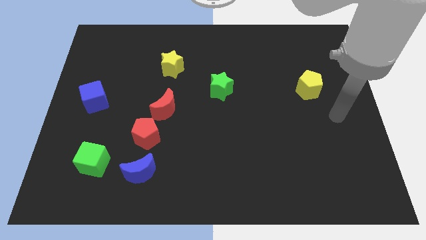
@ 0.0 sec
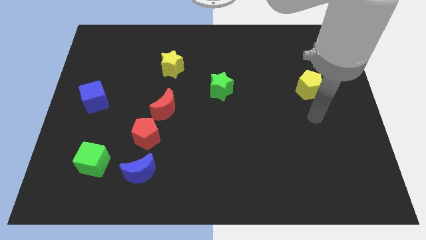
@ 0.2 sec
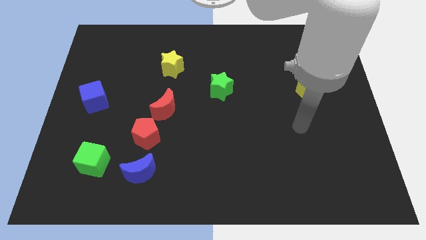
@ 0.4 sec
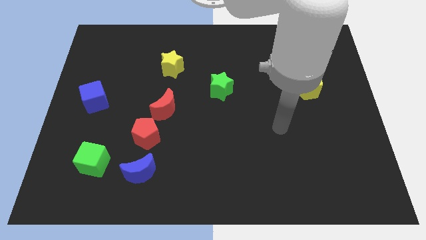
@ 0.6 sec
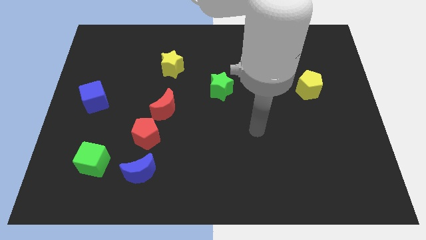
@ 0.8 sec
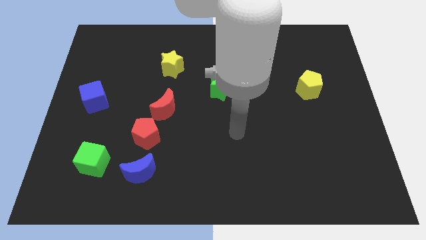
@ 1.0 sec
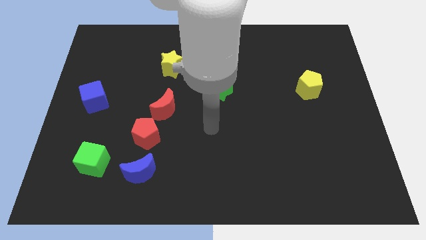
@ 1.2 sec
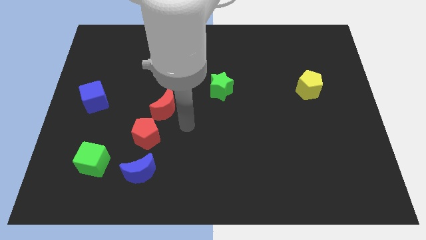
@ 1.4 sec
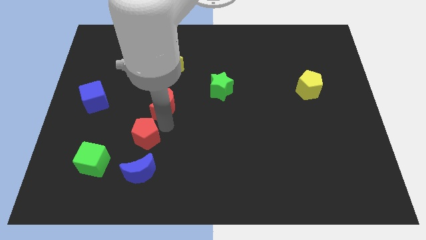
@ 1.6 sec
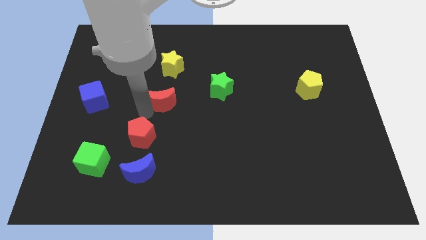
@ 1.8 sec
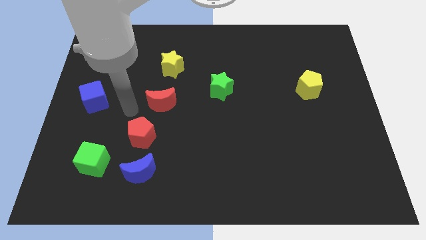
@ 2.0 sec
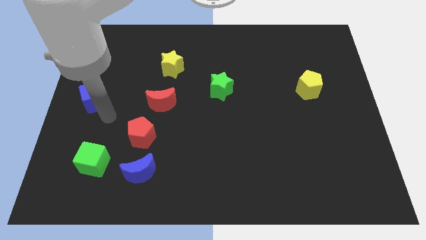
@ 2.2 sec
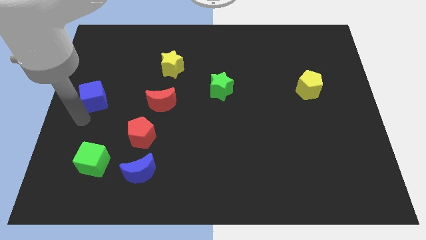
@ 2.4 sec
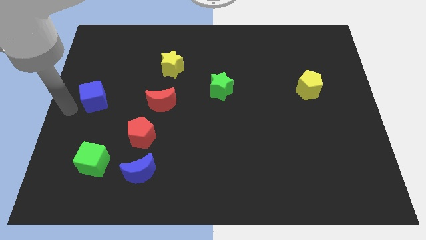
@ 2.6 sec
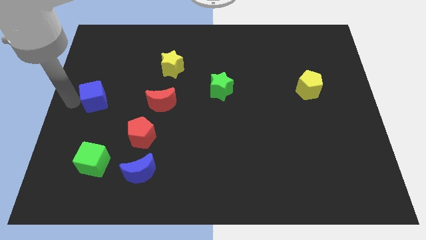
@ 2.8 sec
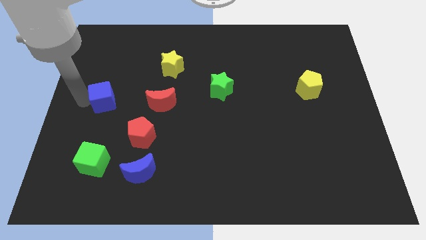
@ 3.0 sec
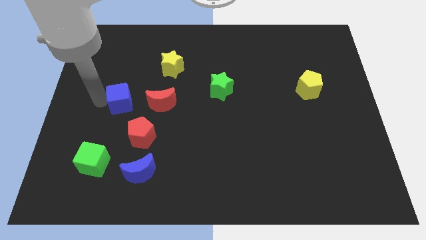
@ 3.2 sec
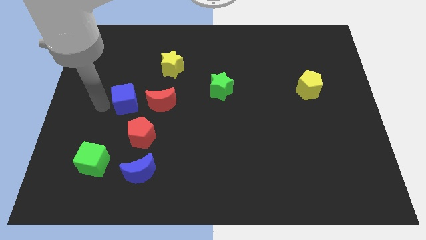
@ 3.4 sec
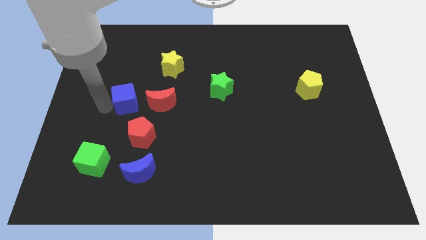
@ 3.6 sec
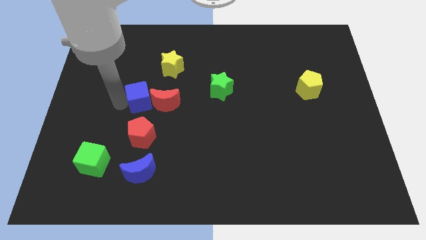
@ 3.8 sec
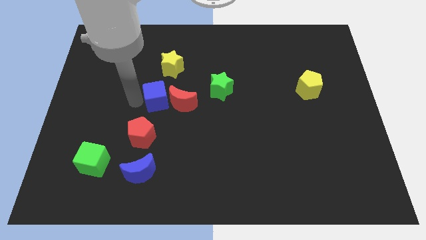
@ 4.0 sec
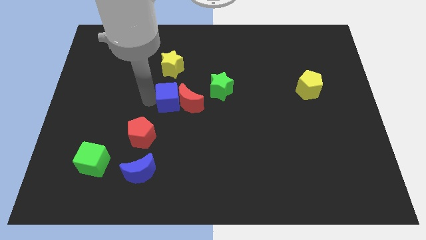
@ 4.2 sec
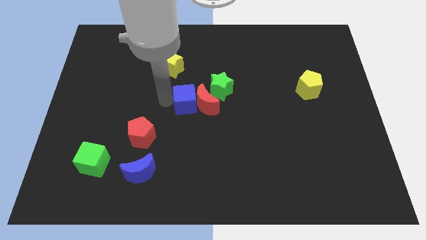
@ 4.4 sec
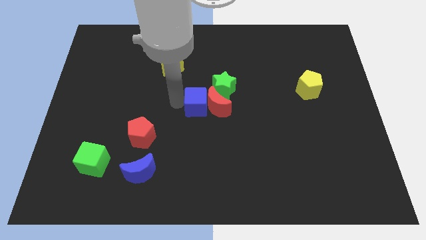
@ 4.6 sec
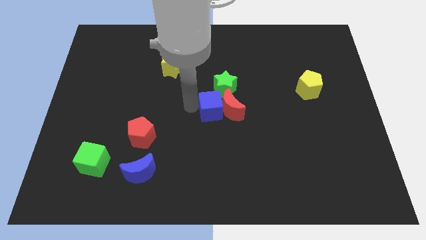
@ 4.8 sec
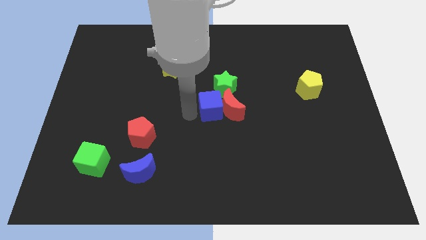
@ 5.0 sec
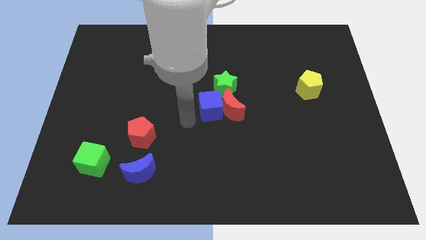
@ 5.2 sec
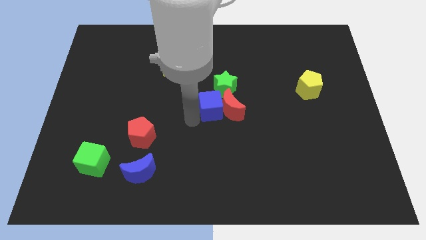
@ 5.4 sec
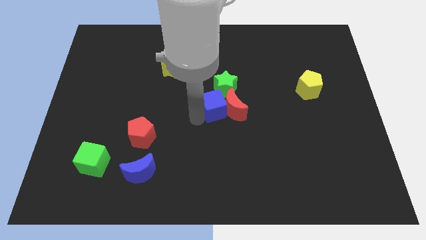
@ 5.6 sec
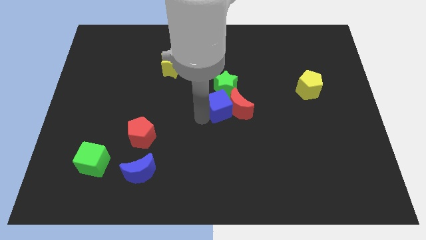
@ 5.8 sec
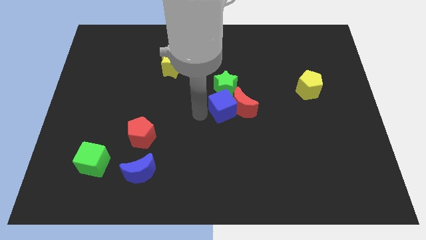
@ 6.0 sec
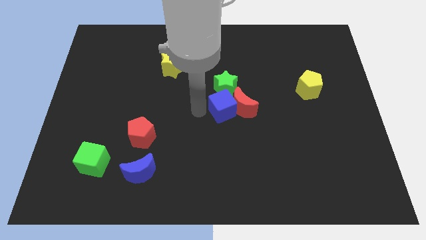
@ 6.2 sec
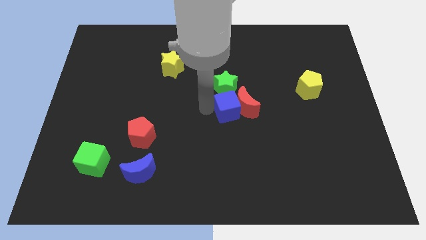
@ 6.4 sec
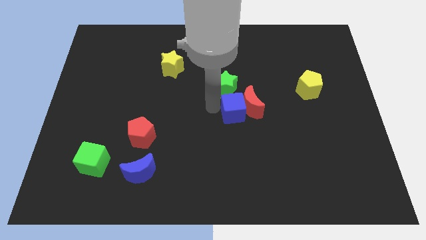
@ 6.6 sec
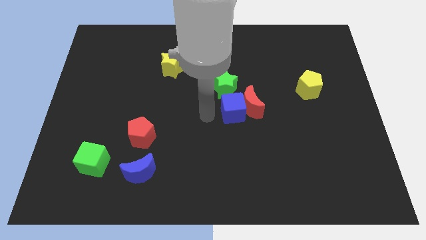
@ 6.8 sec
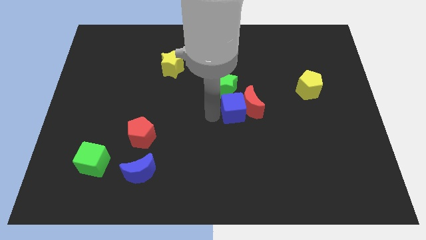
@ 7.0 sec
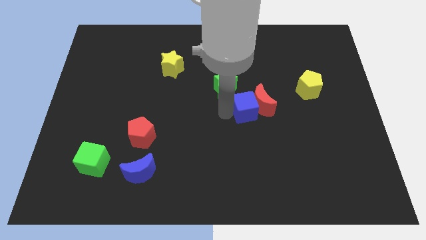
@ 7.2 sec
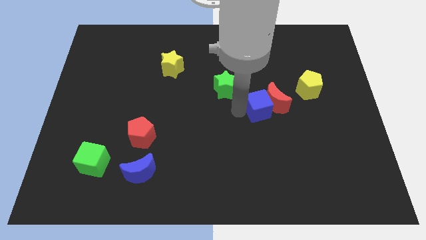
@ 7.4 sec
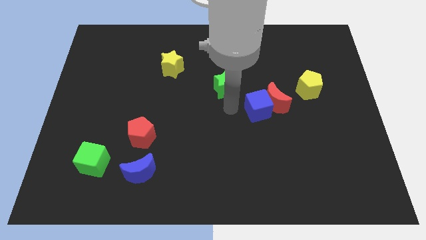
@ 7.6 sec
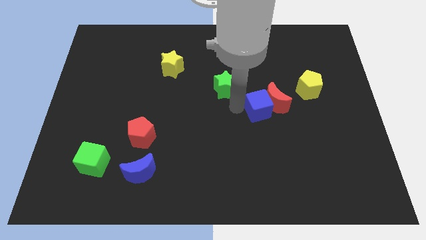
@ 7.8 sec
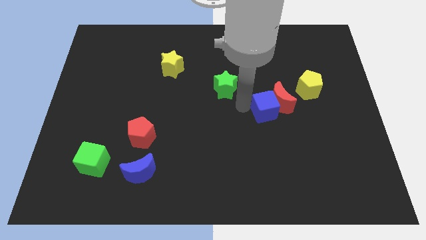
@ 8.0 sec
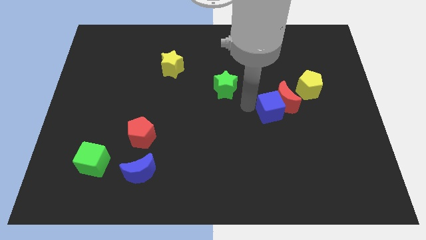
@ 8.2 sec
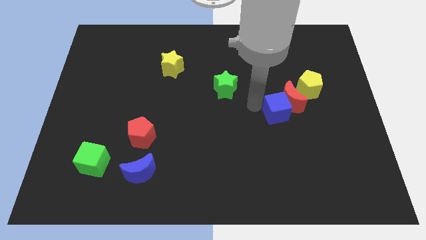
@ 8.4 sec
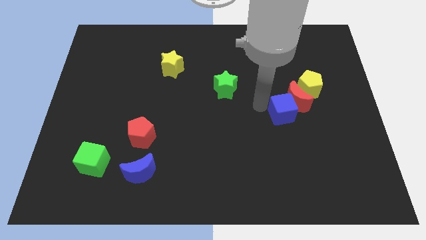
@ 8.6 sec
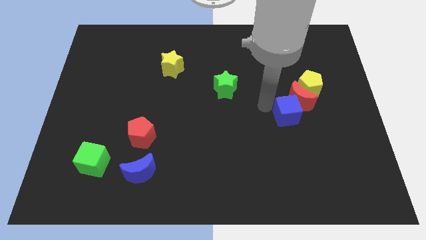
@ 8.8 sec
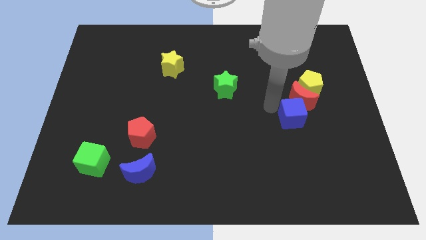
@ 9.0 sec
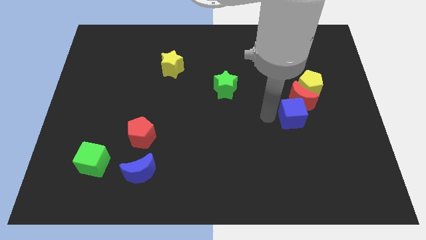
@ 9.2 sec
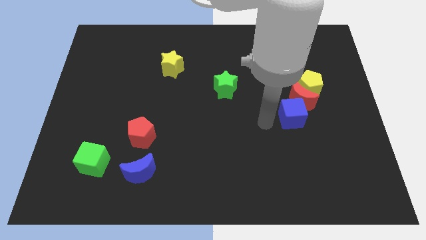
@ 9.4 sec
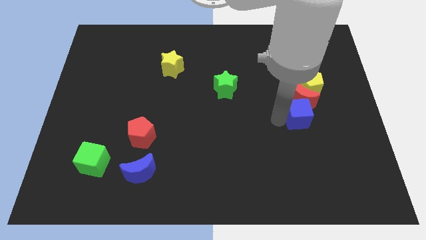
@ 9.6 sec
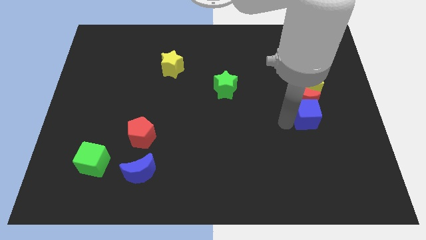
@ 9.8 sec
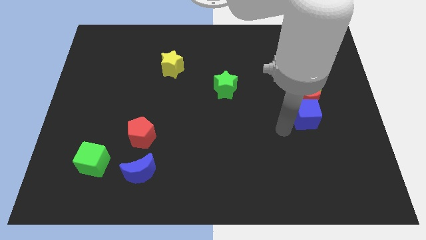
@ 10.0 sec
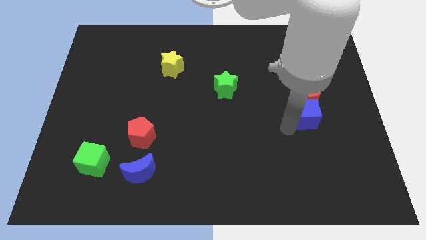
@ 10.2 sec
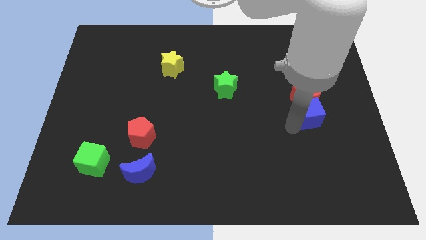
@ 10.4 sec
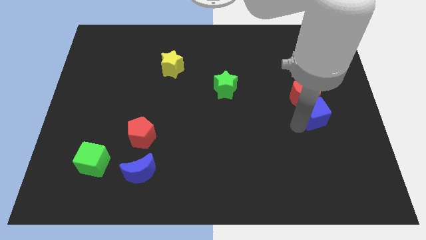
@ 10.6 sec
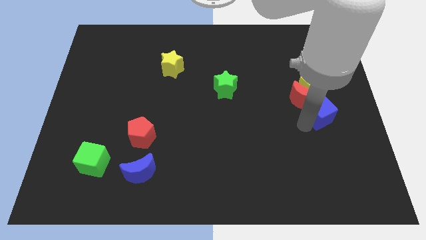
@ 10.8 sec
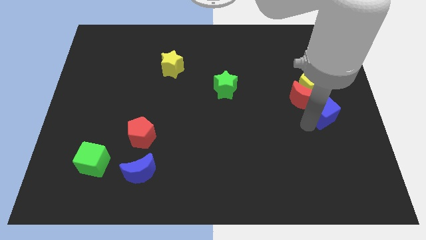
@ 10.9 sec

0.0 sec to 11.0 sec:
slide the blue cube to the bottom right of the yellow pentagon
